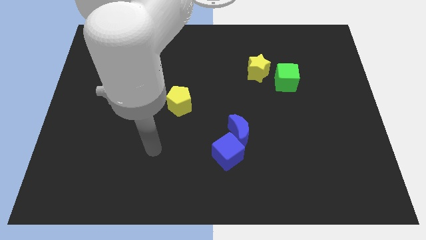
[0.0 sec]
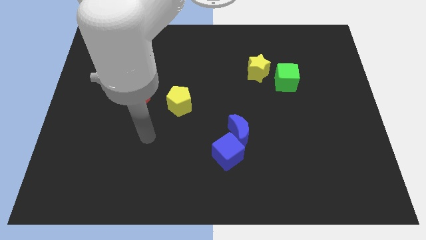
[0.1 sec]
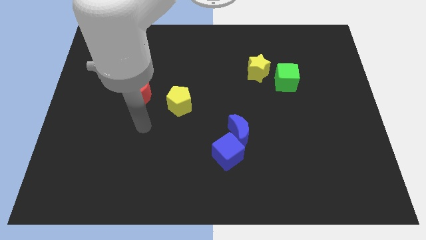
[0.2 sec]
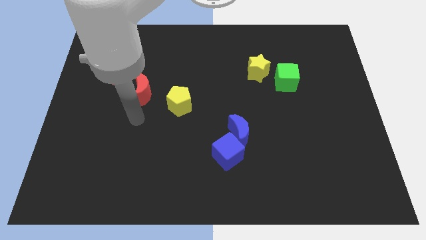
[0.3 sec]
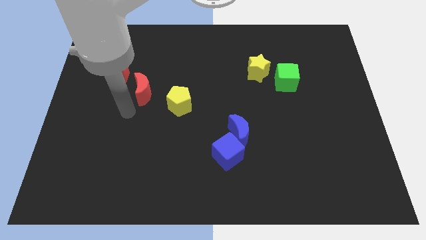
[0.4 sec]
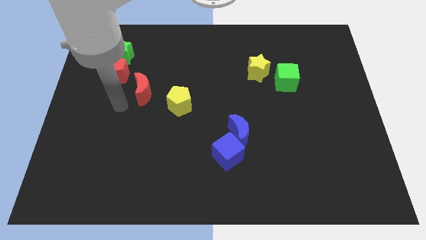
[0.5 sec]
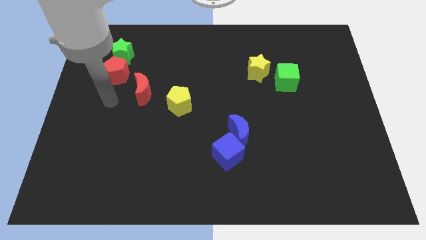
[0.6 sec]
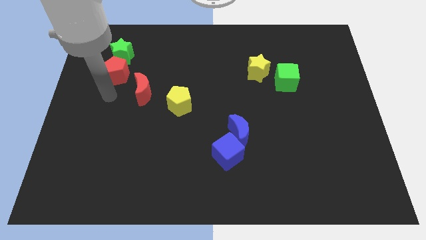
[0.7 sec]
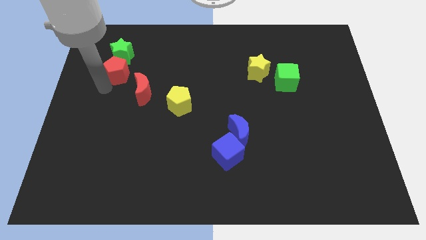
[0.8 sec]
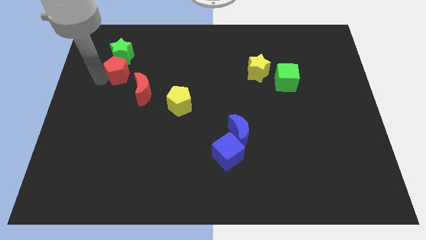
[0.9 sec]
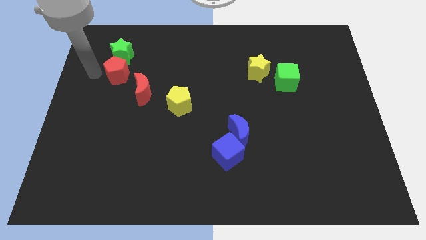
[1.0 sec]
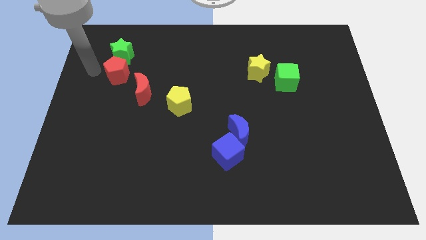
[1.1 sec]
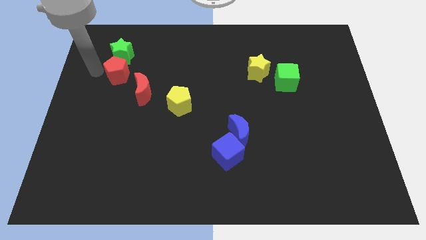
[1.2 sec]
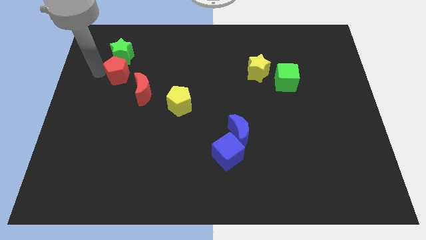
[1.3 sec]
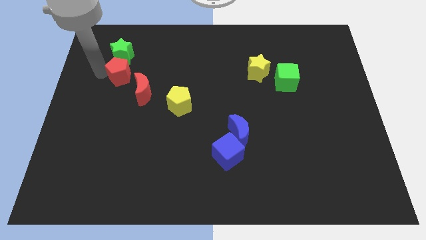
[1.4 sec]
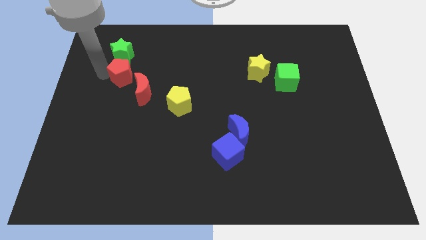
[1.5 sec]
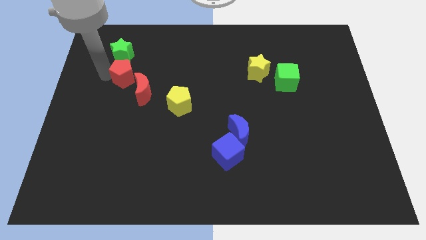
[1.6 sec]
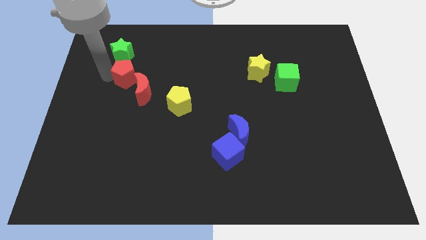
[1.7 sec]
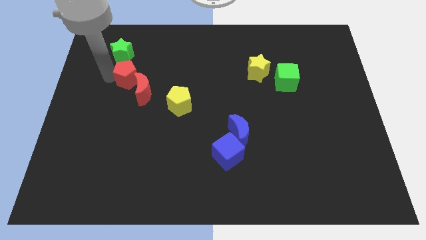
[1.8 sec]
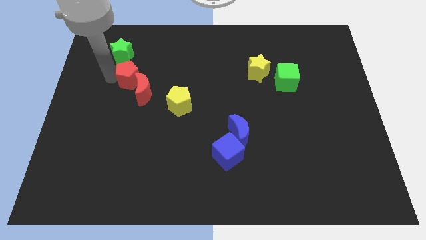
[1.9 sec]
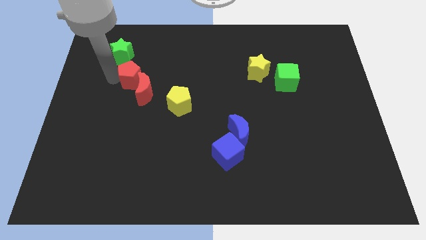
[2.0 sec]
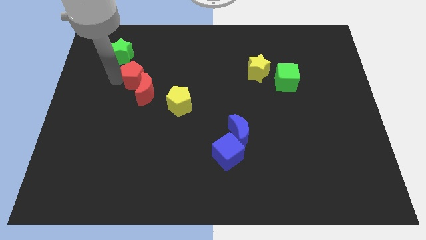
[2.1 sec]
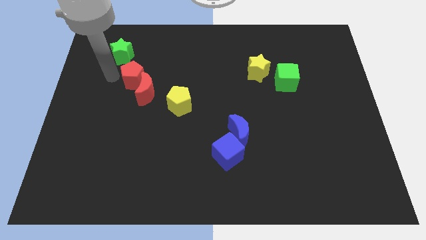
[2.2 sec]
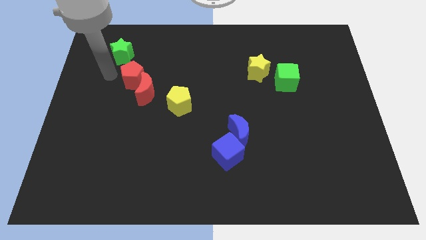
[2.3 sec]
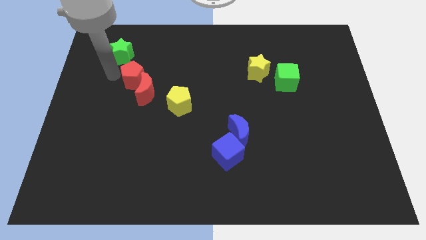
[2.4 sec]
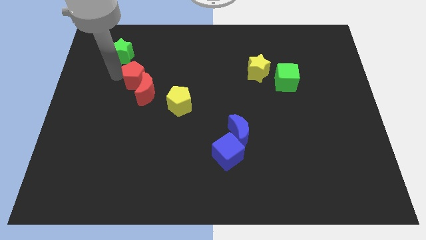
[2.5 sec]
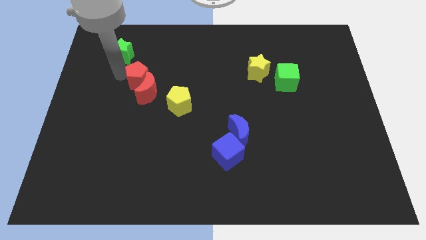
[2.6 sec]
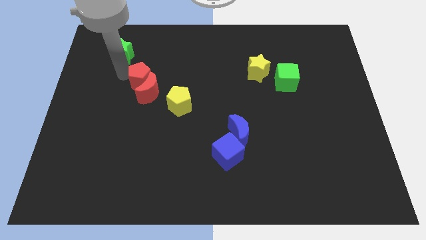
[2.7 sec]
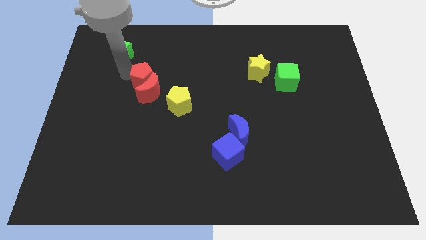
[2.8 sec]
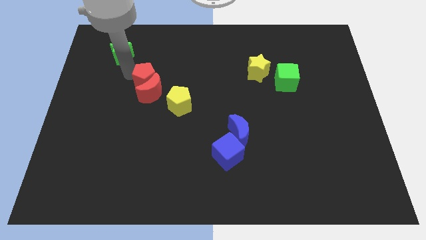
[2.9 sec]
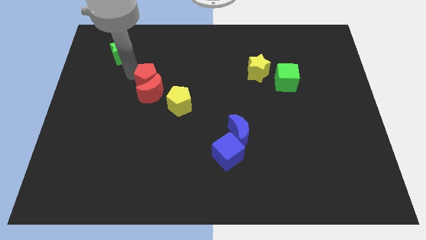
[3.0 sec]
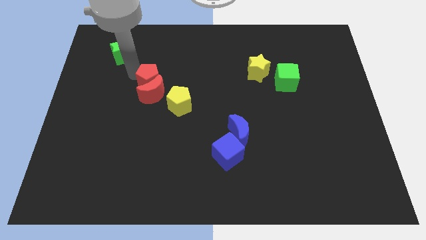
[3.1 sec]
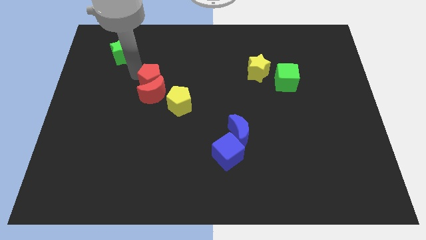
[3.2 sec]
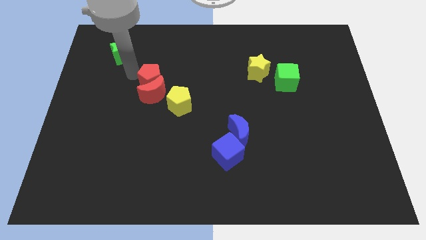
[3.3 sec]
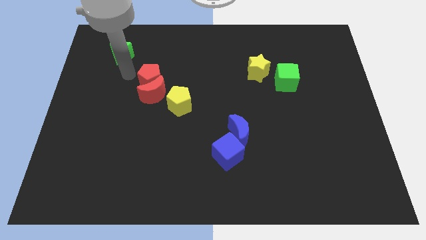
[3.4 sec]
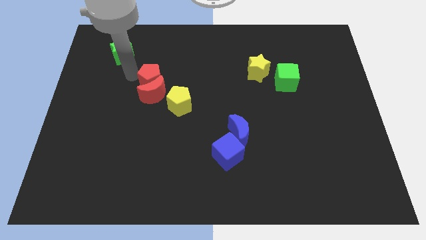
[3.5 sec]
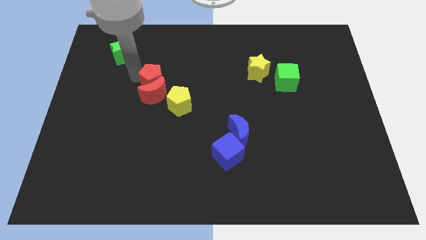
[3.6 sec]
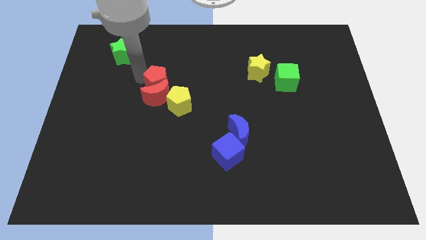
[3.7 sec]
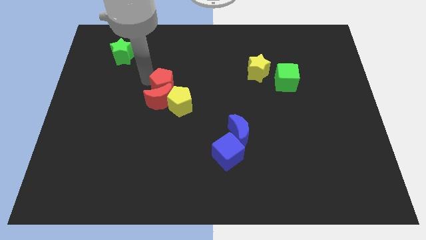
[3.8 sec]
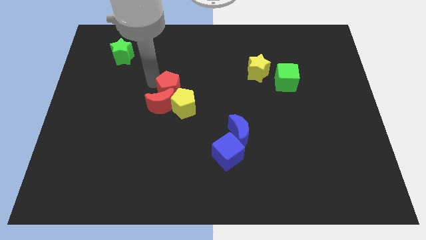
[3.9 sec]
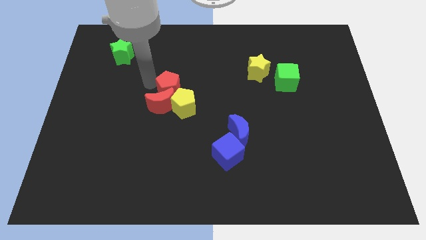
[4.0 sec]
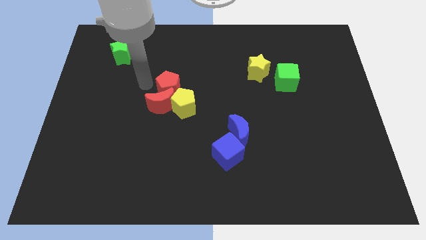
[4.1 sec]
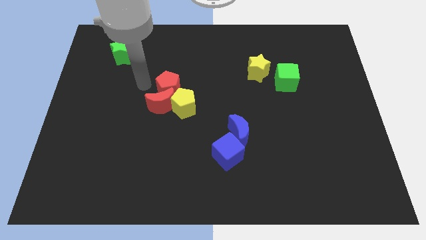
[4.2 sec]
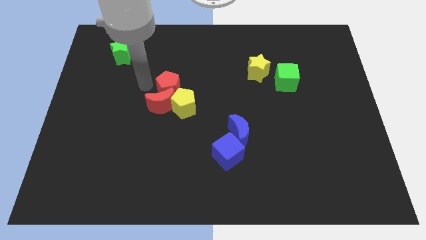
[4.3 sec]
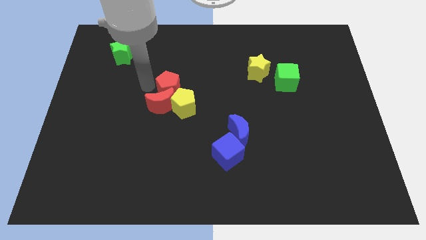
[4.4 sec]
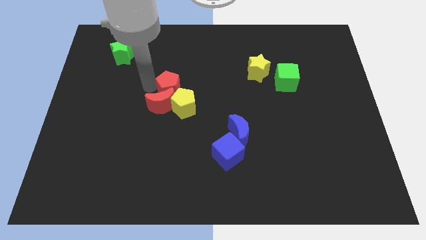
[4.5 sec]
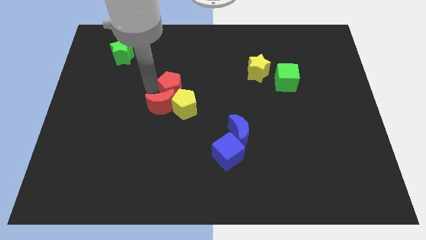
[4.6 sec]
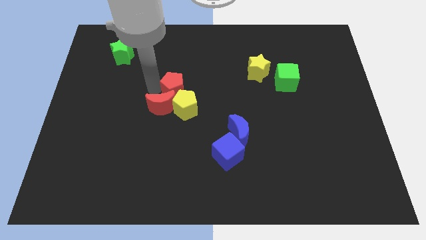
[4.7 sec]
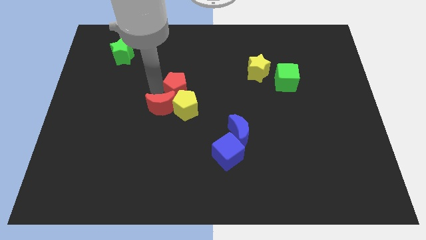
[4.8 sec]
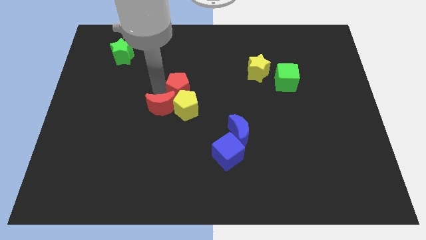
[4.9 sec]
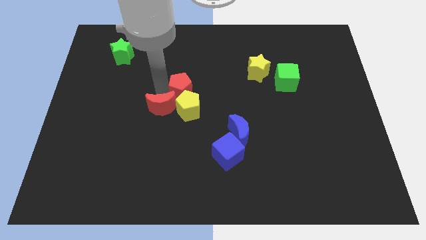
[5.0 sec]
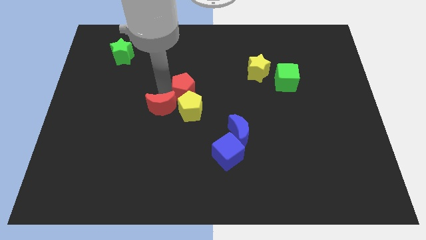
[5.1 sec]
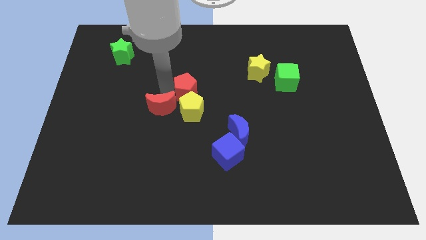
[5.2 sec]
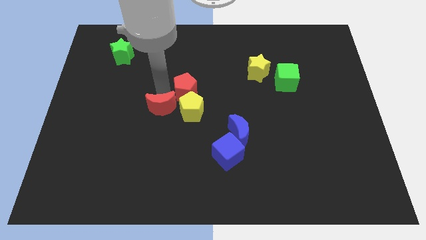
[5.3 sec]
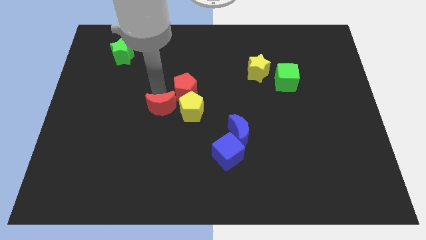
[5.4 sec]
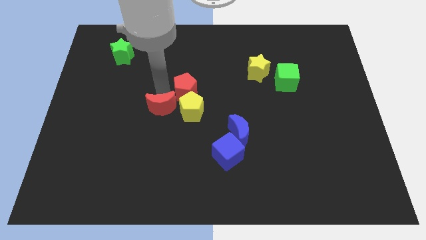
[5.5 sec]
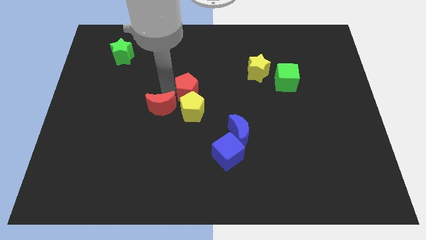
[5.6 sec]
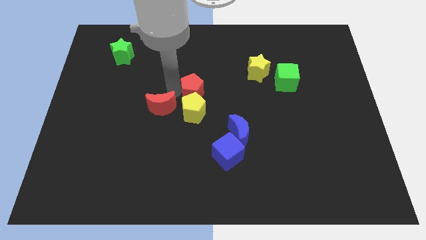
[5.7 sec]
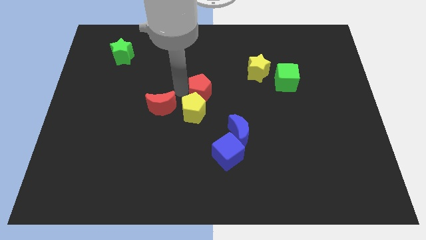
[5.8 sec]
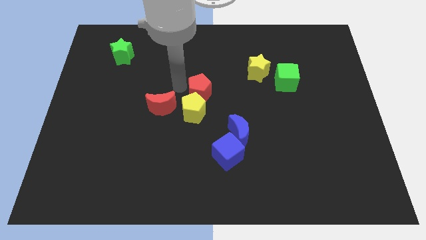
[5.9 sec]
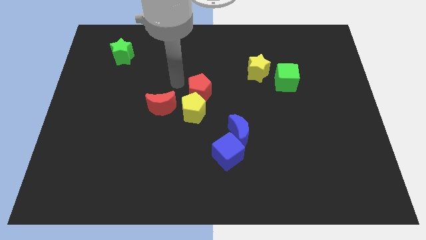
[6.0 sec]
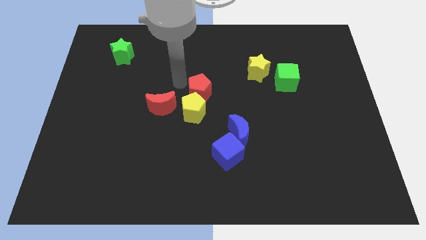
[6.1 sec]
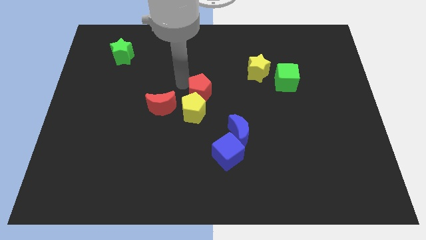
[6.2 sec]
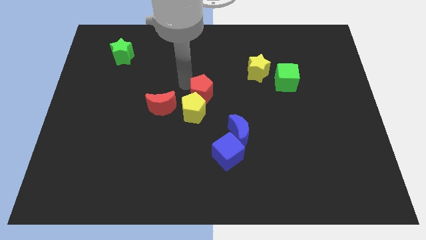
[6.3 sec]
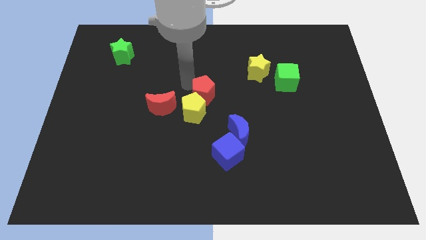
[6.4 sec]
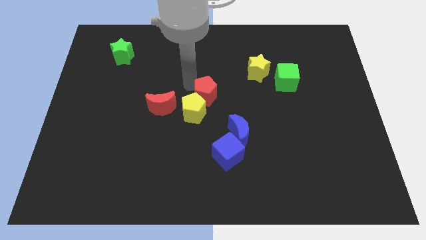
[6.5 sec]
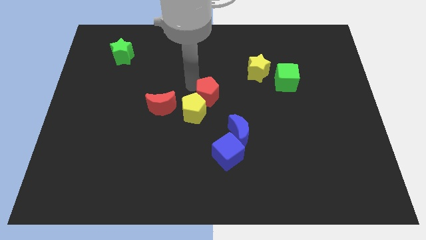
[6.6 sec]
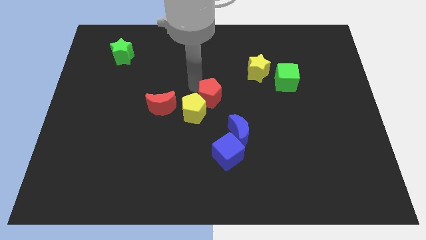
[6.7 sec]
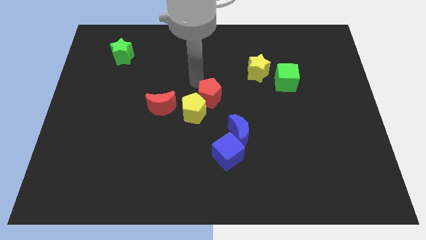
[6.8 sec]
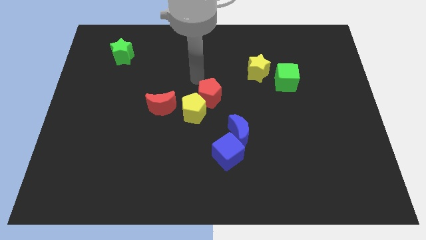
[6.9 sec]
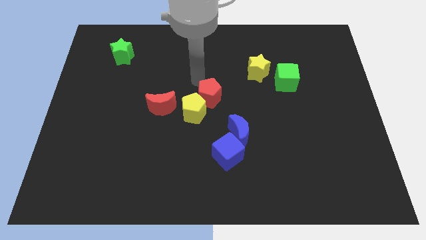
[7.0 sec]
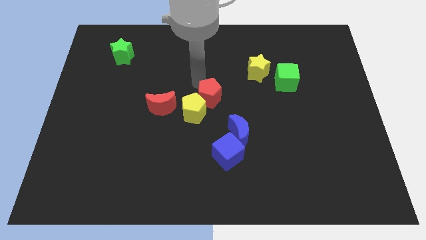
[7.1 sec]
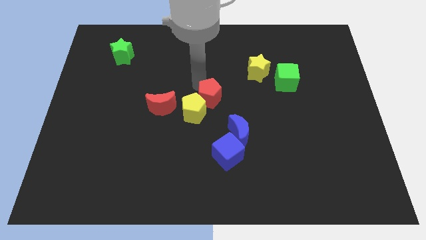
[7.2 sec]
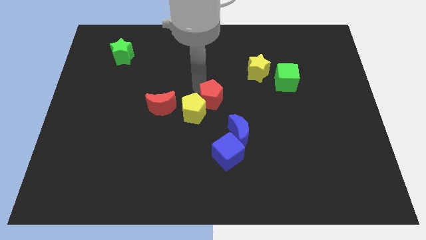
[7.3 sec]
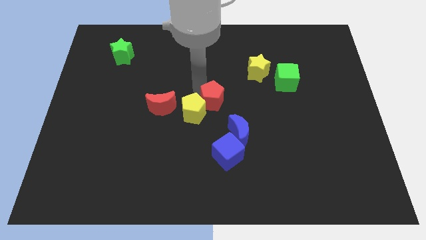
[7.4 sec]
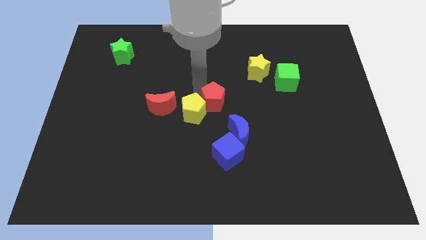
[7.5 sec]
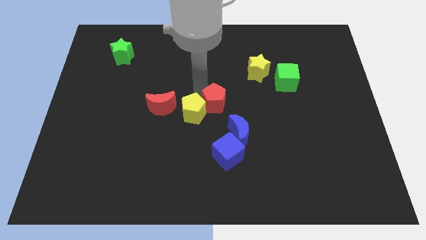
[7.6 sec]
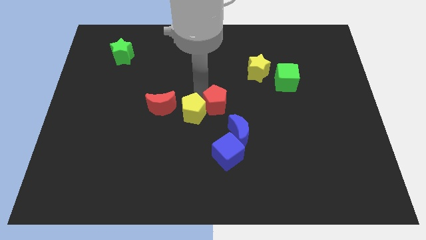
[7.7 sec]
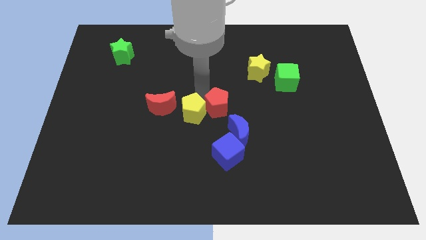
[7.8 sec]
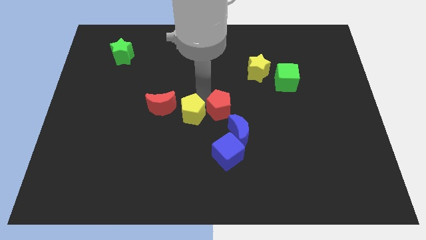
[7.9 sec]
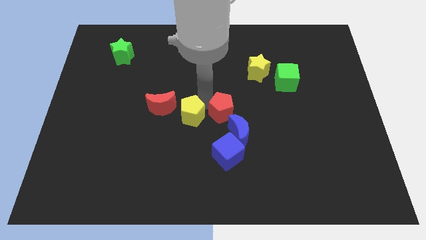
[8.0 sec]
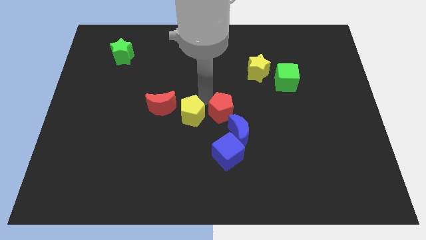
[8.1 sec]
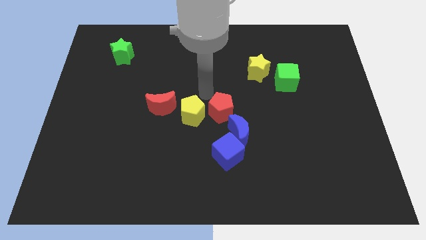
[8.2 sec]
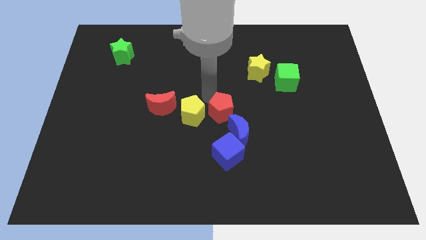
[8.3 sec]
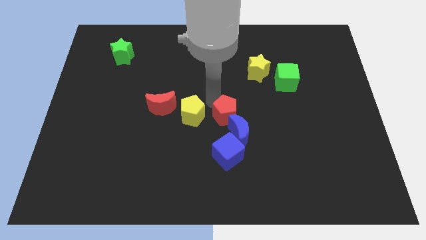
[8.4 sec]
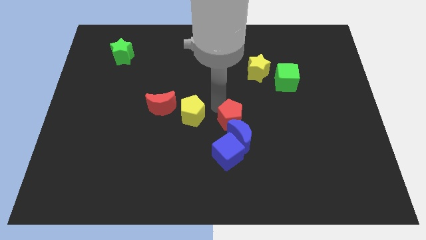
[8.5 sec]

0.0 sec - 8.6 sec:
put the red pentagon towards the blue moon
